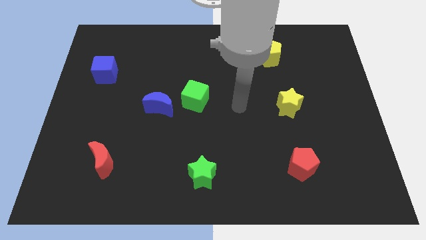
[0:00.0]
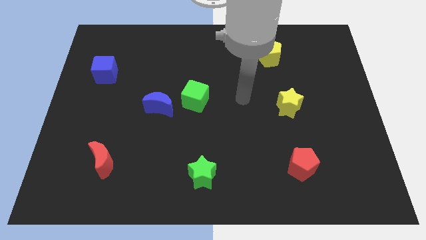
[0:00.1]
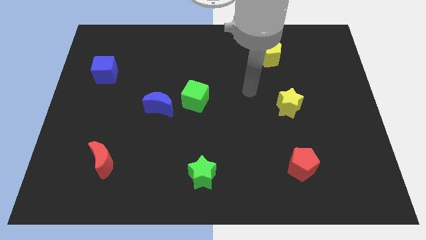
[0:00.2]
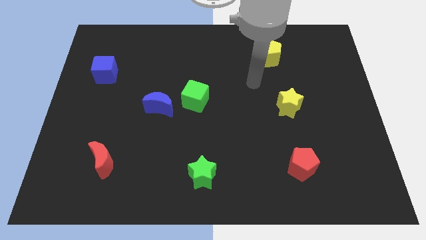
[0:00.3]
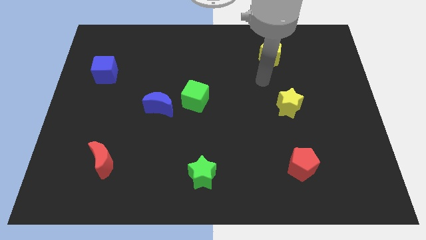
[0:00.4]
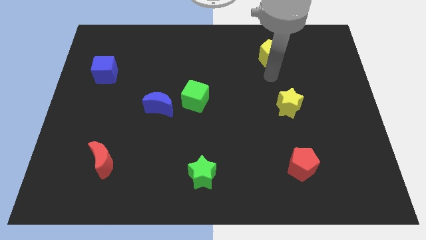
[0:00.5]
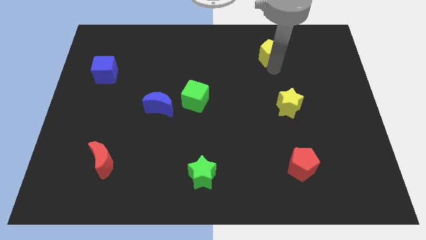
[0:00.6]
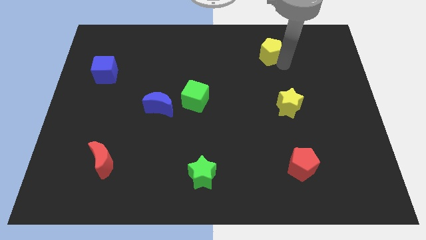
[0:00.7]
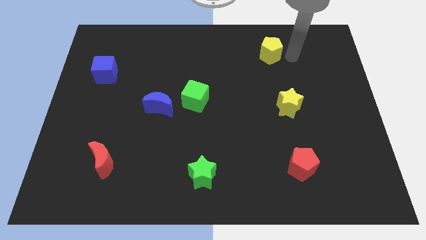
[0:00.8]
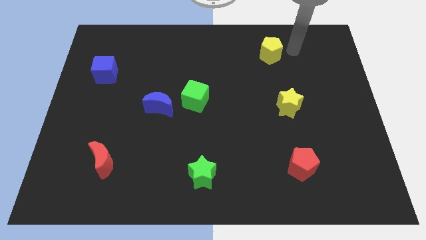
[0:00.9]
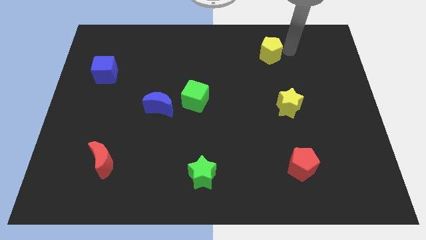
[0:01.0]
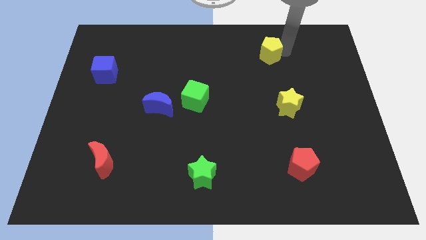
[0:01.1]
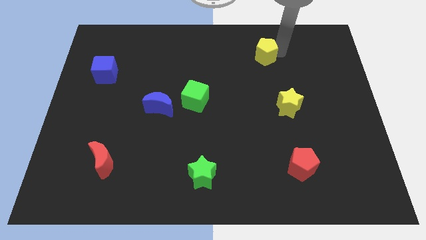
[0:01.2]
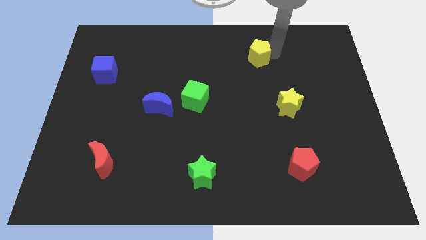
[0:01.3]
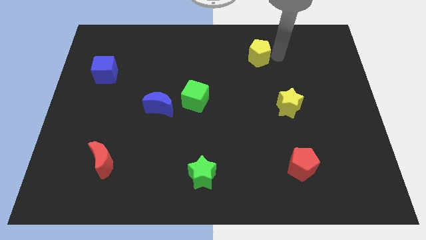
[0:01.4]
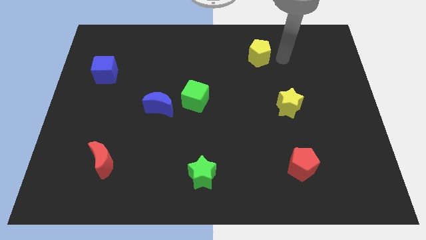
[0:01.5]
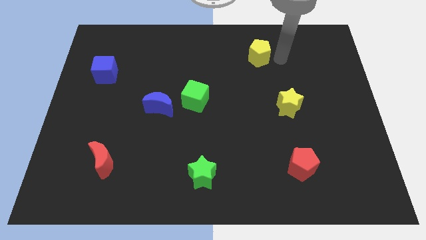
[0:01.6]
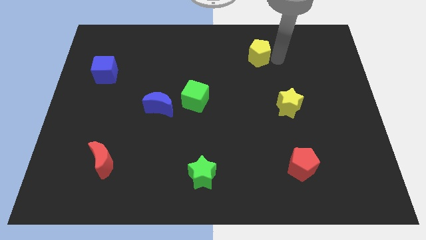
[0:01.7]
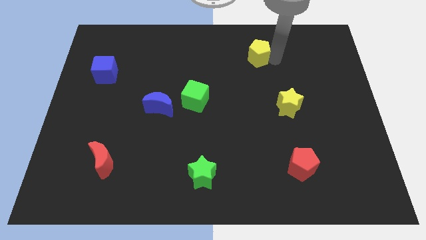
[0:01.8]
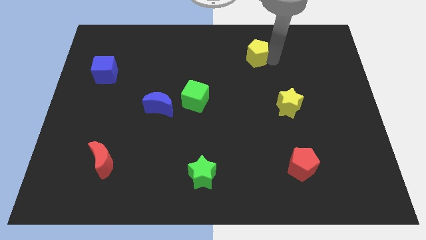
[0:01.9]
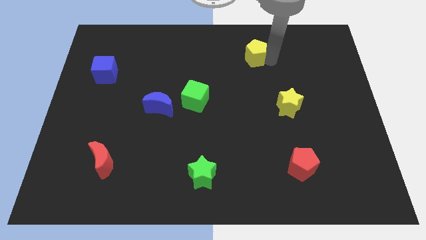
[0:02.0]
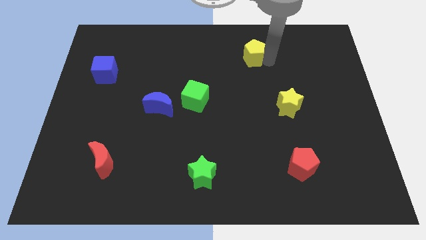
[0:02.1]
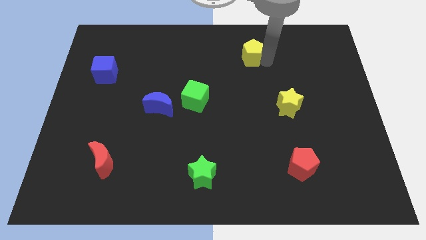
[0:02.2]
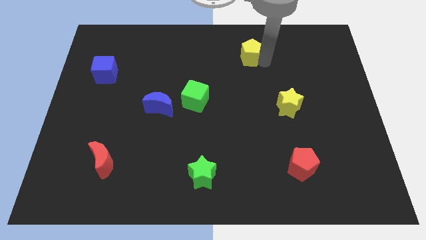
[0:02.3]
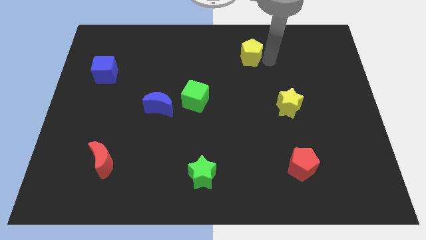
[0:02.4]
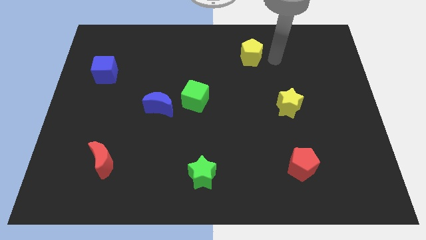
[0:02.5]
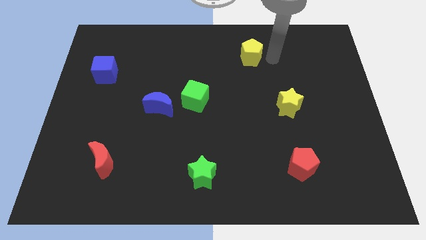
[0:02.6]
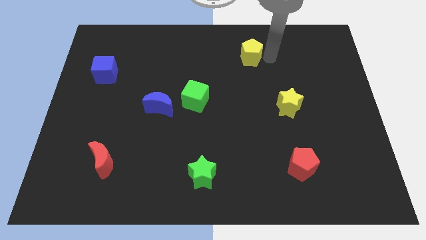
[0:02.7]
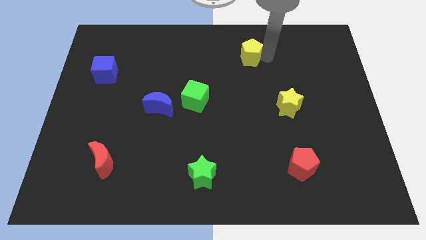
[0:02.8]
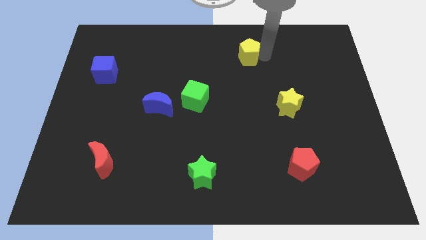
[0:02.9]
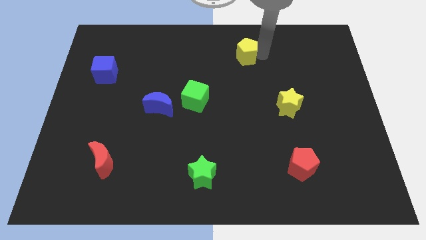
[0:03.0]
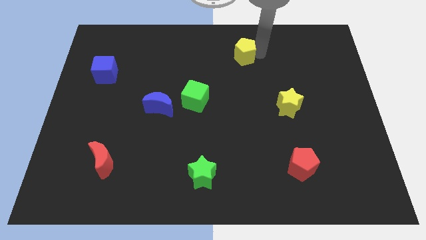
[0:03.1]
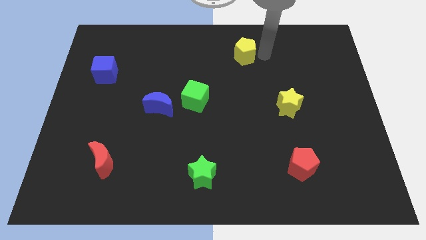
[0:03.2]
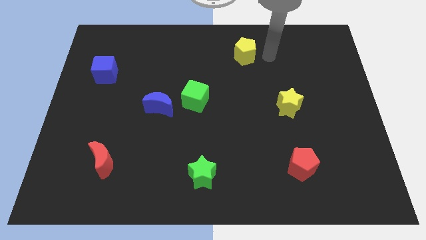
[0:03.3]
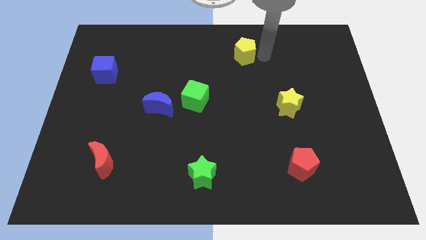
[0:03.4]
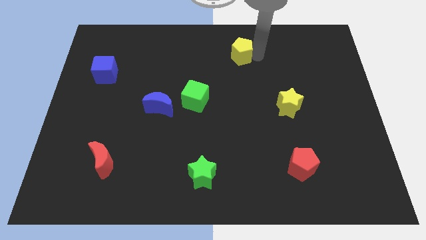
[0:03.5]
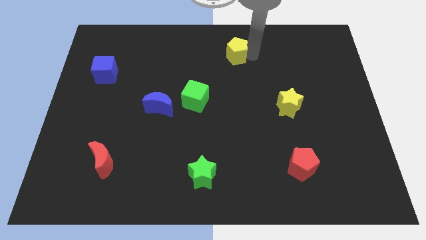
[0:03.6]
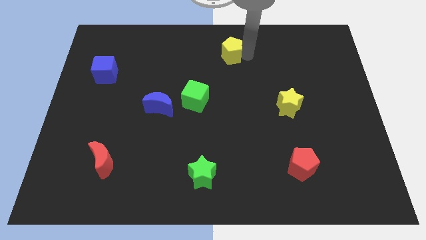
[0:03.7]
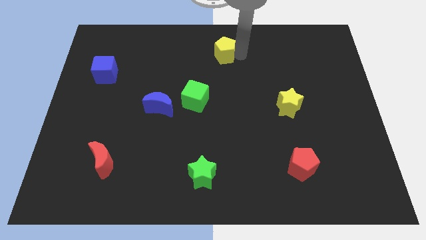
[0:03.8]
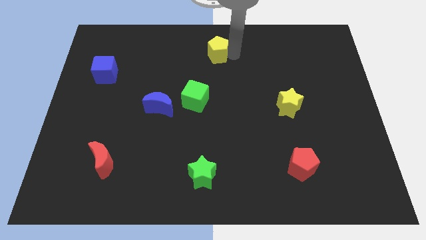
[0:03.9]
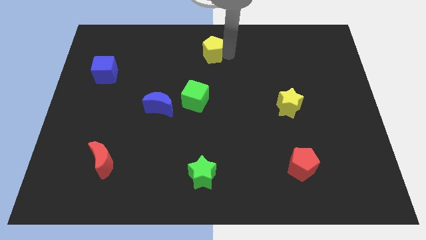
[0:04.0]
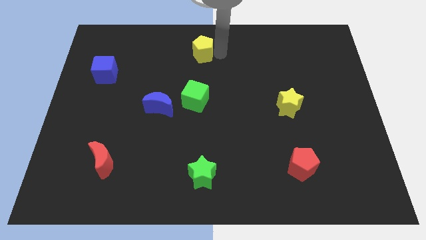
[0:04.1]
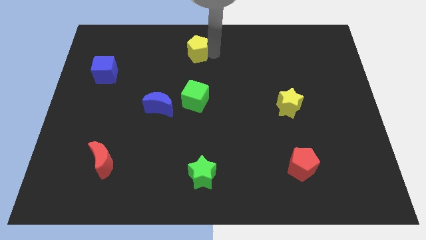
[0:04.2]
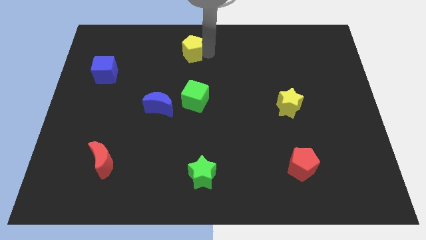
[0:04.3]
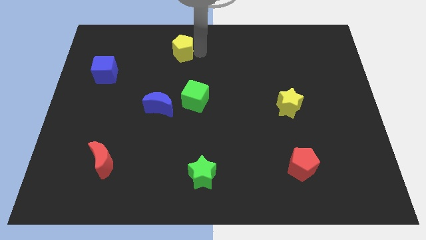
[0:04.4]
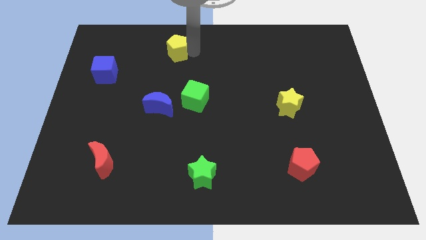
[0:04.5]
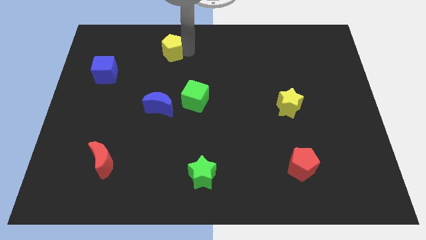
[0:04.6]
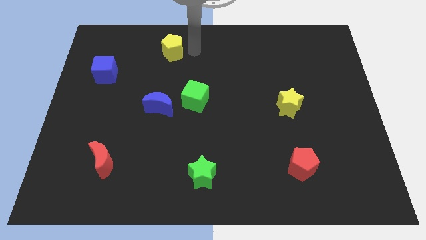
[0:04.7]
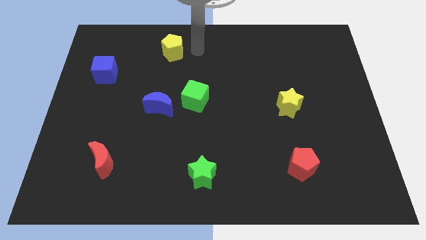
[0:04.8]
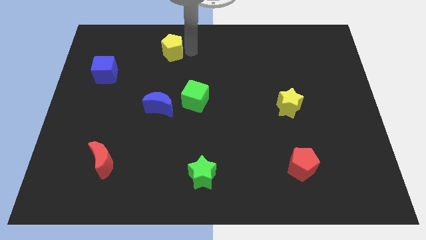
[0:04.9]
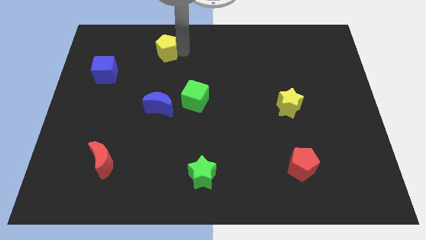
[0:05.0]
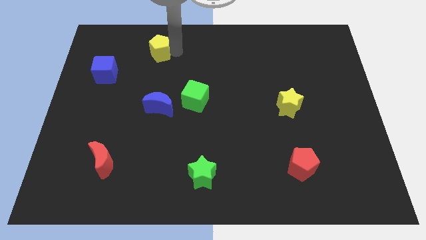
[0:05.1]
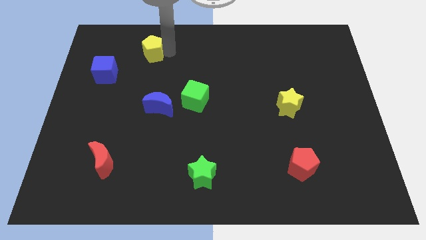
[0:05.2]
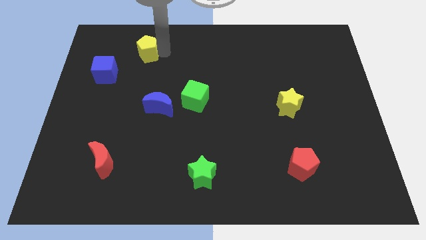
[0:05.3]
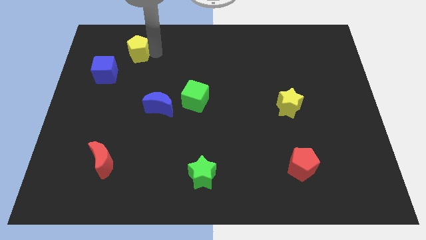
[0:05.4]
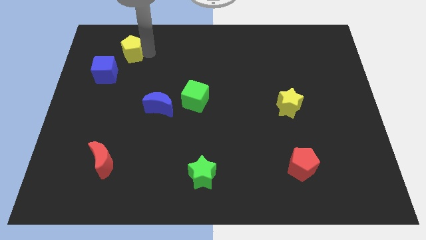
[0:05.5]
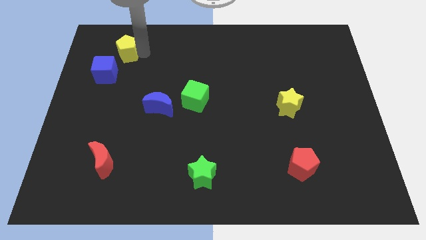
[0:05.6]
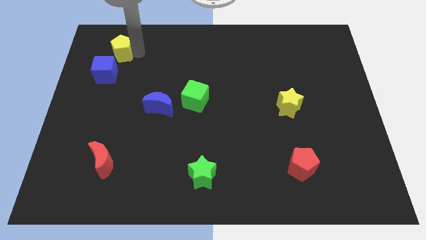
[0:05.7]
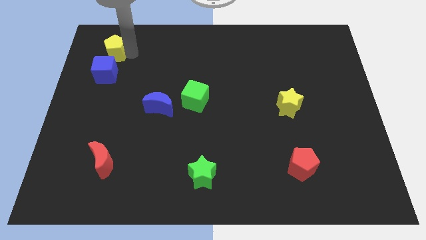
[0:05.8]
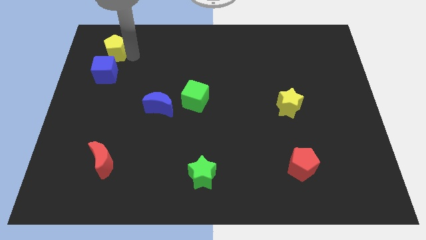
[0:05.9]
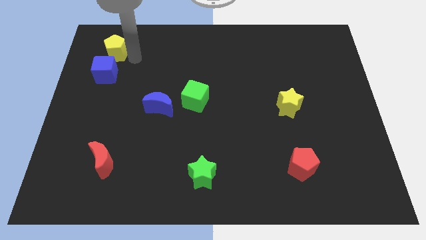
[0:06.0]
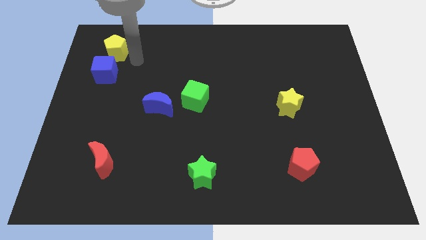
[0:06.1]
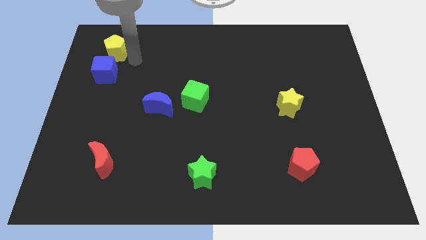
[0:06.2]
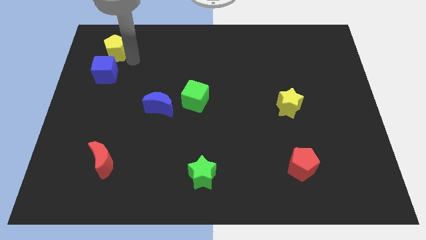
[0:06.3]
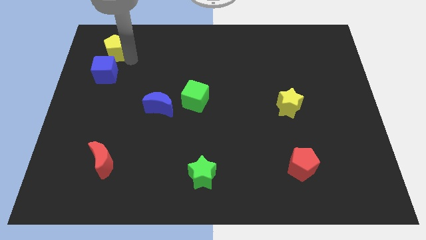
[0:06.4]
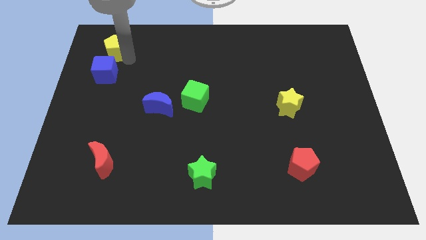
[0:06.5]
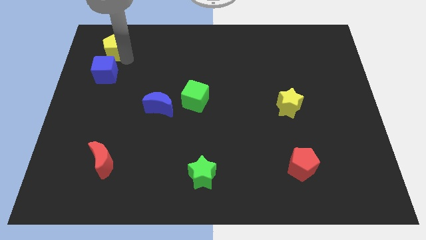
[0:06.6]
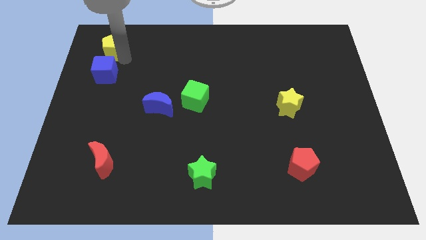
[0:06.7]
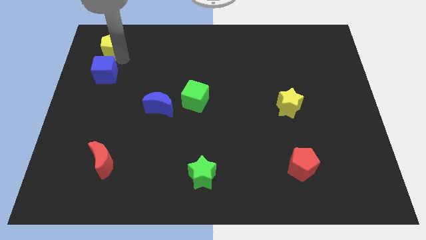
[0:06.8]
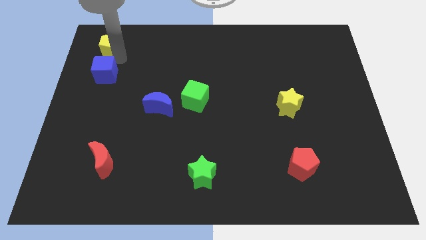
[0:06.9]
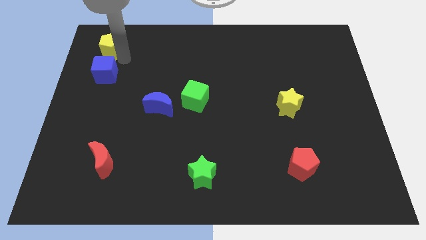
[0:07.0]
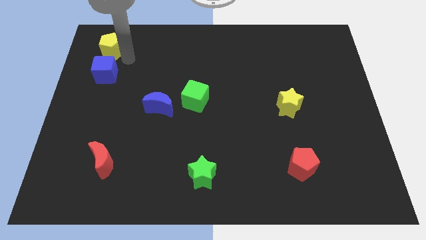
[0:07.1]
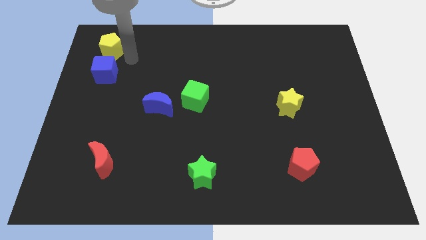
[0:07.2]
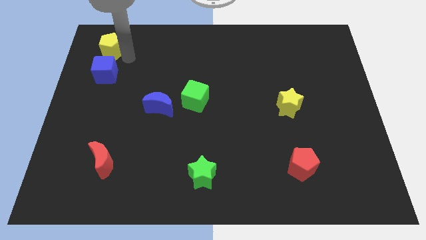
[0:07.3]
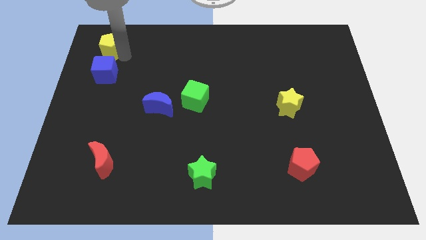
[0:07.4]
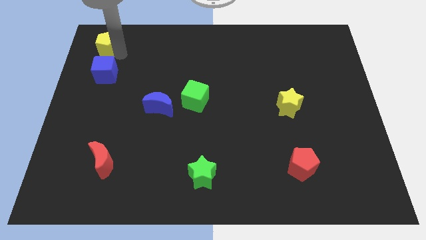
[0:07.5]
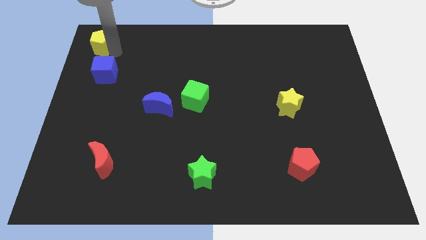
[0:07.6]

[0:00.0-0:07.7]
put the yellow pentagon to the top left corner
